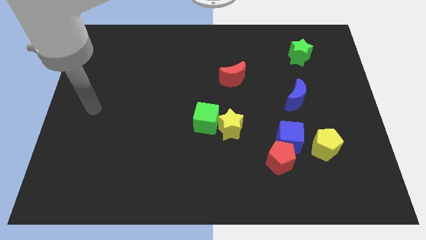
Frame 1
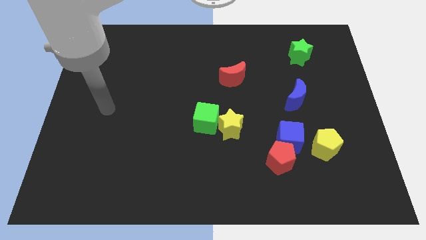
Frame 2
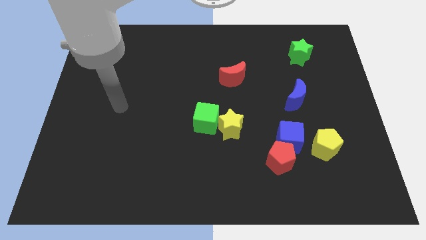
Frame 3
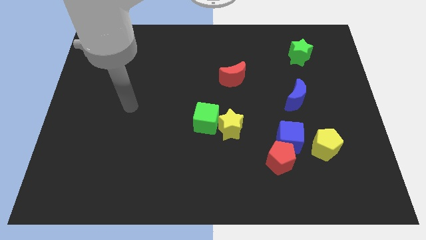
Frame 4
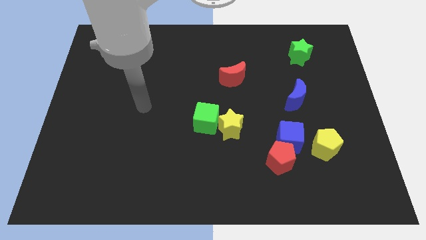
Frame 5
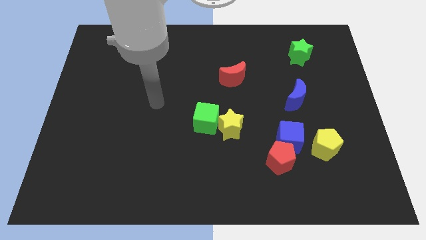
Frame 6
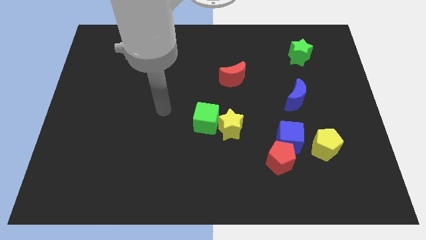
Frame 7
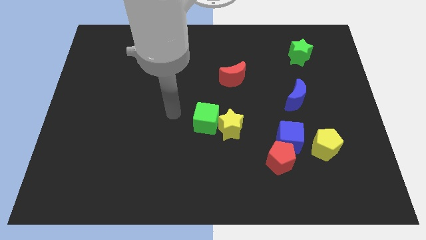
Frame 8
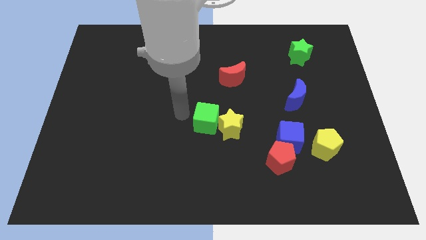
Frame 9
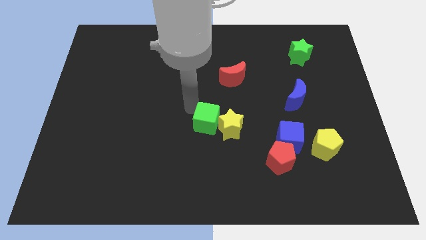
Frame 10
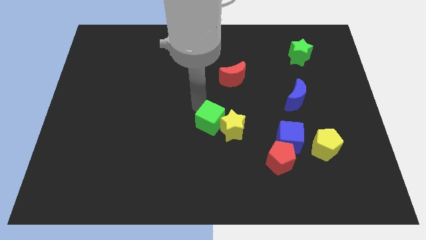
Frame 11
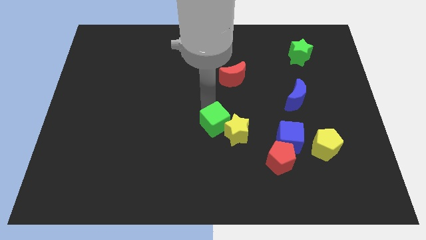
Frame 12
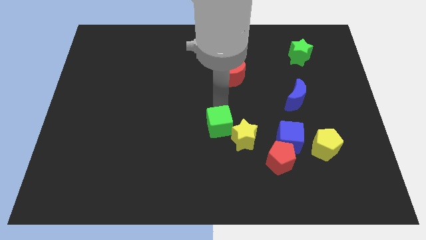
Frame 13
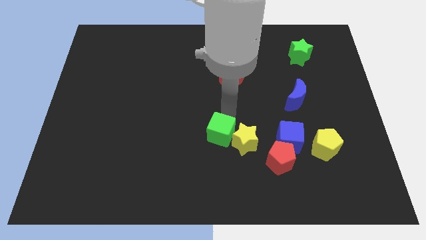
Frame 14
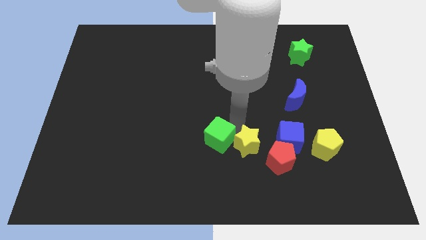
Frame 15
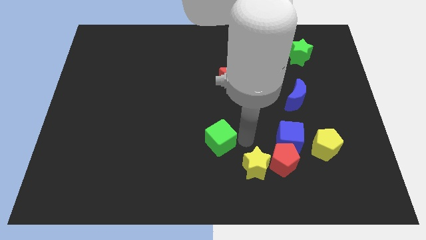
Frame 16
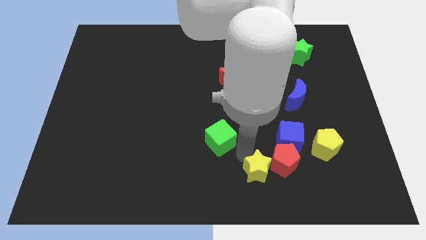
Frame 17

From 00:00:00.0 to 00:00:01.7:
separate the green cube from the yellow star

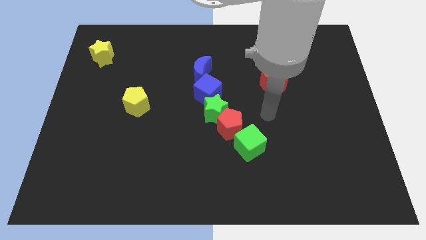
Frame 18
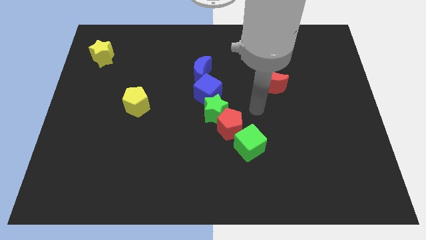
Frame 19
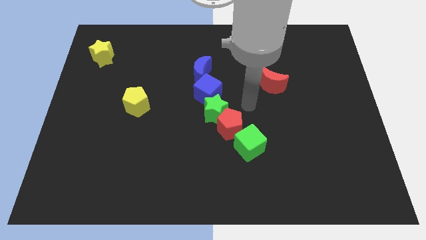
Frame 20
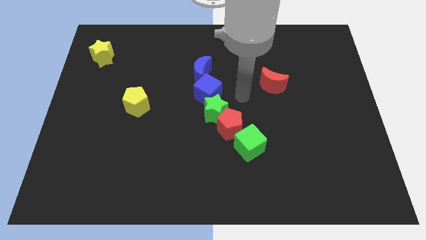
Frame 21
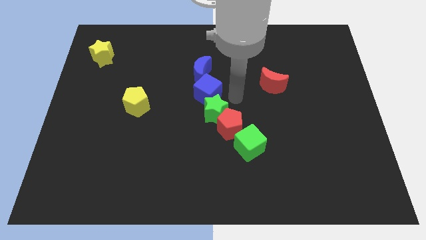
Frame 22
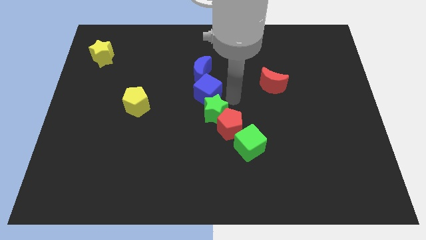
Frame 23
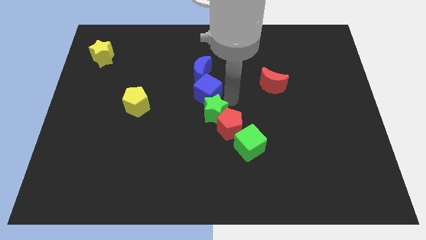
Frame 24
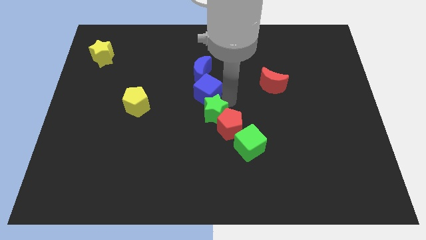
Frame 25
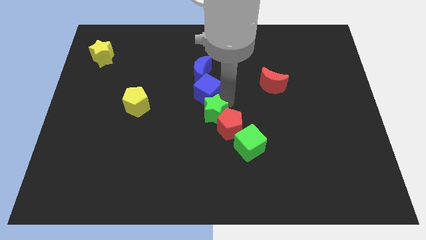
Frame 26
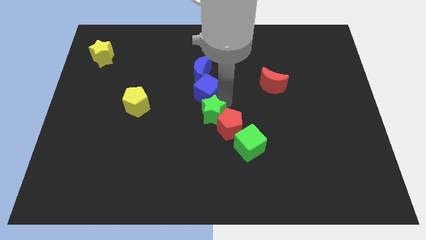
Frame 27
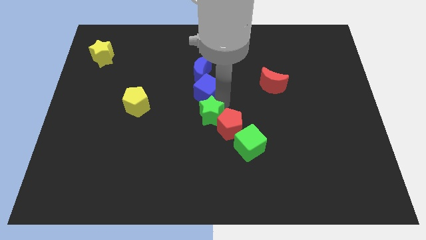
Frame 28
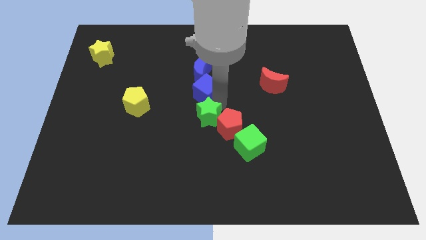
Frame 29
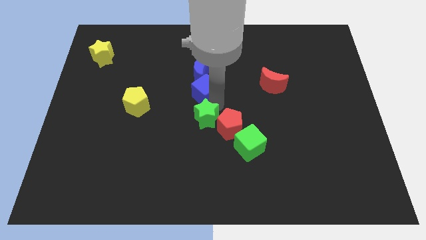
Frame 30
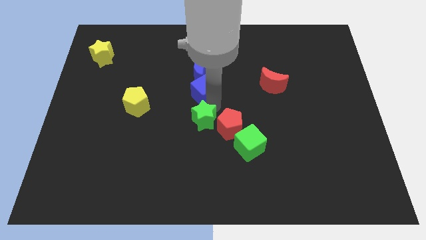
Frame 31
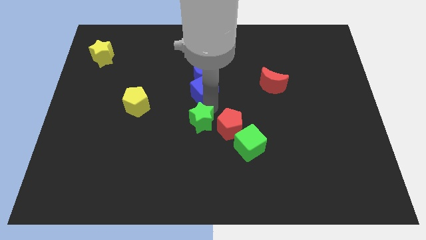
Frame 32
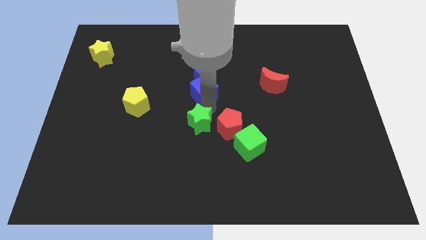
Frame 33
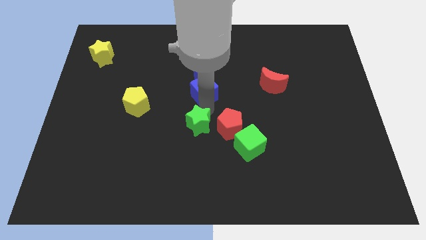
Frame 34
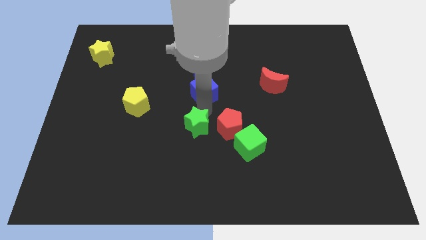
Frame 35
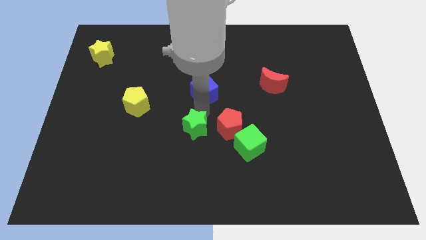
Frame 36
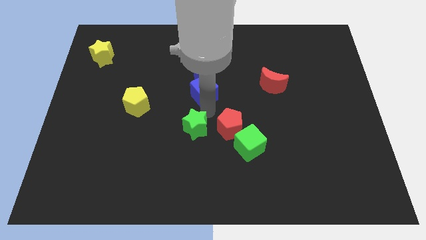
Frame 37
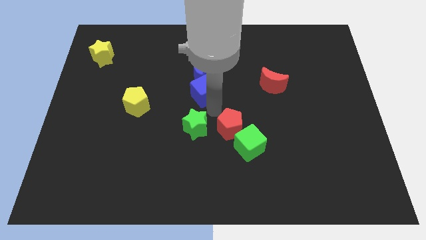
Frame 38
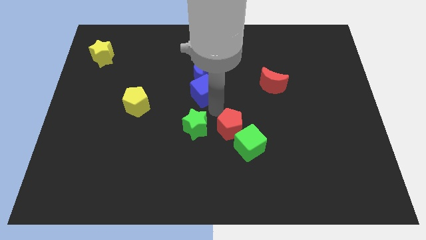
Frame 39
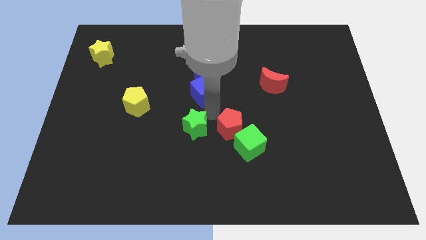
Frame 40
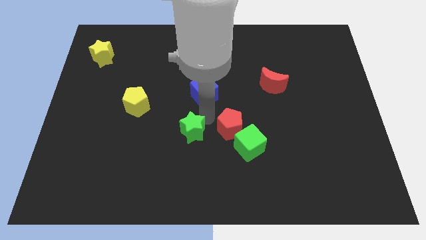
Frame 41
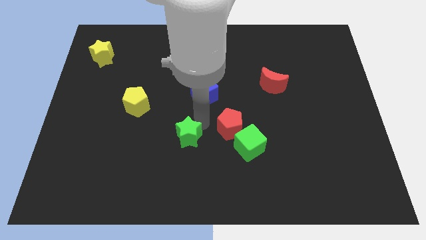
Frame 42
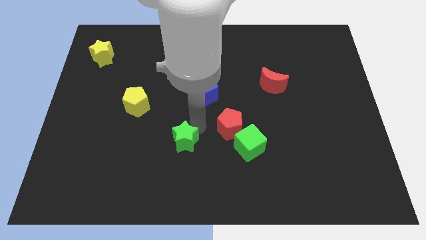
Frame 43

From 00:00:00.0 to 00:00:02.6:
separate the green star from the red pentagon and blue cube

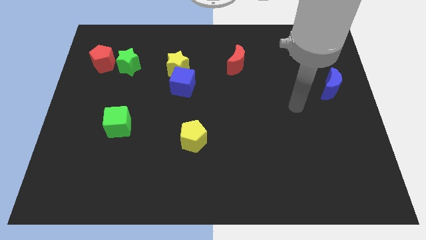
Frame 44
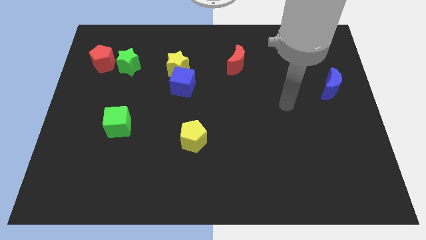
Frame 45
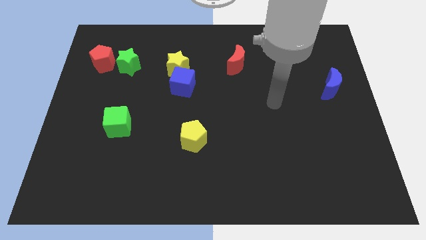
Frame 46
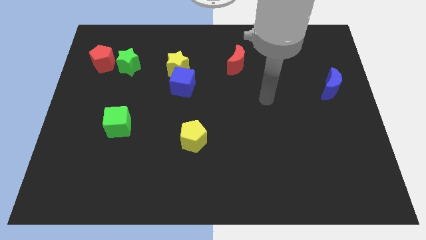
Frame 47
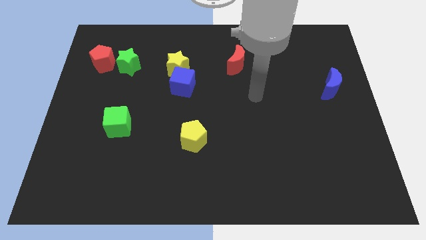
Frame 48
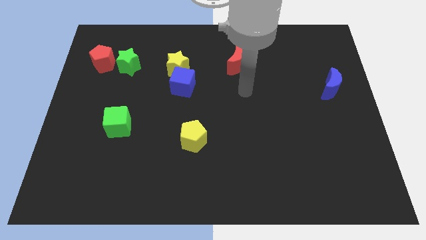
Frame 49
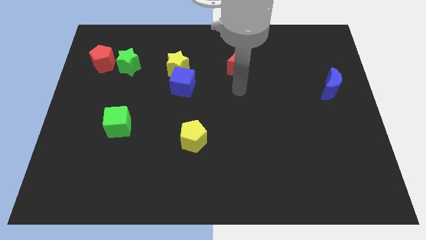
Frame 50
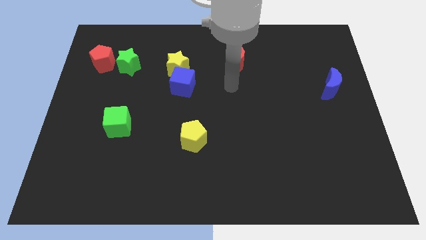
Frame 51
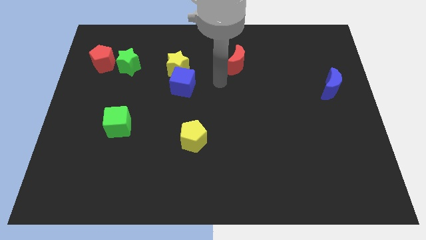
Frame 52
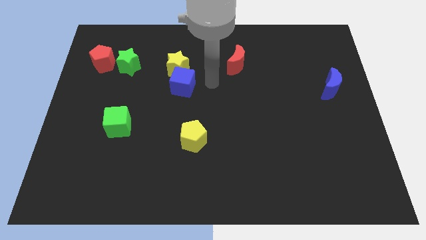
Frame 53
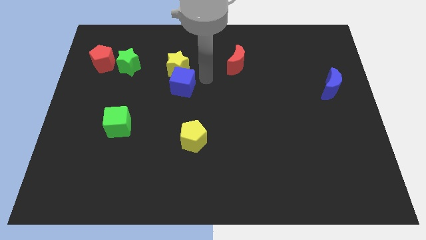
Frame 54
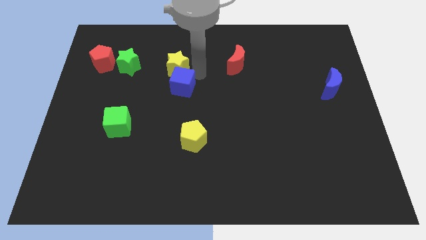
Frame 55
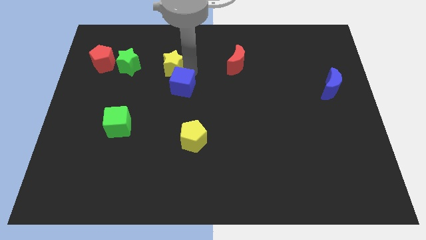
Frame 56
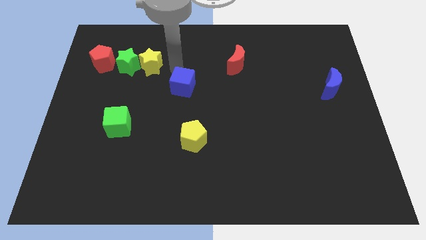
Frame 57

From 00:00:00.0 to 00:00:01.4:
move the blue cube away from the yellow star

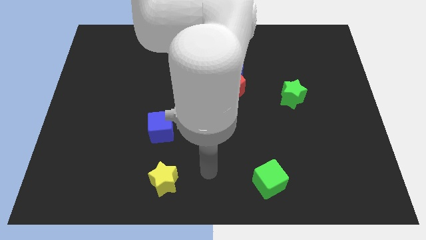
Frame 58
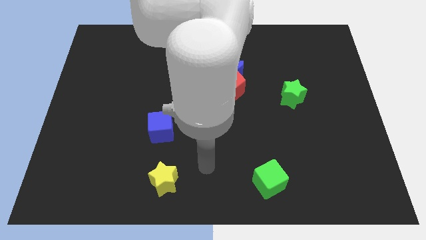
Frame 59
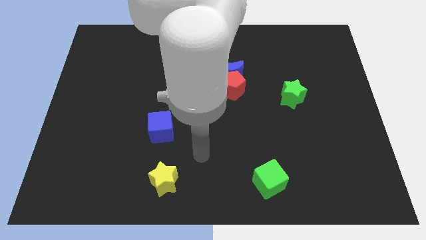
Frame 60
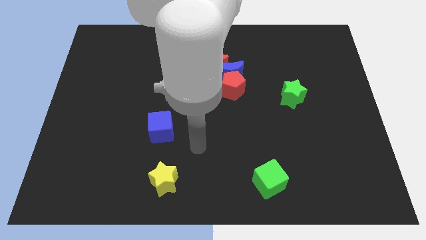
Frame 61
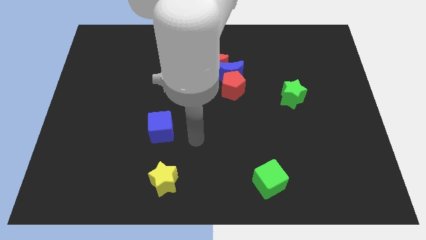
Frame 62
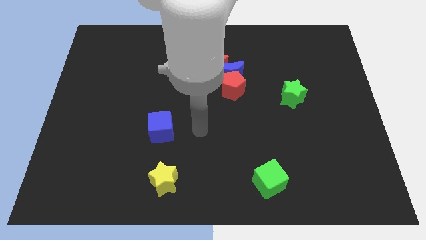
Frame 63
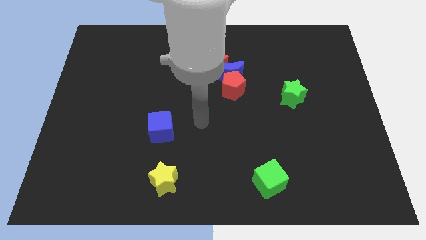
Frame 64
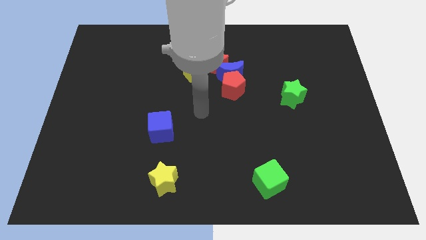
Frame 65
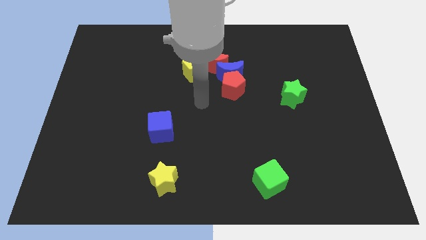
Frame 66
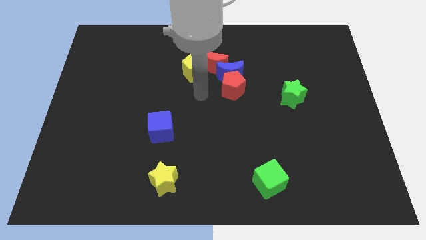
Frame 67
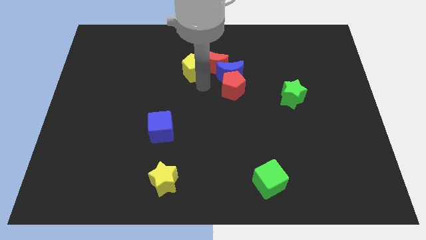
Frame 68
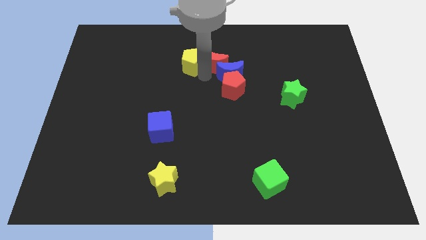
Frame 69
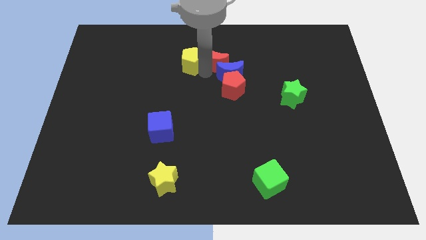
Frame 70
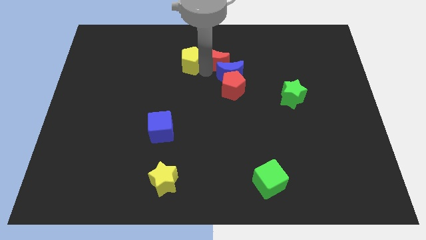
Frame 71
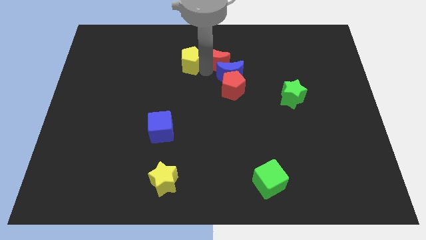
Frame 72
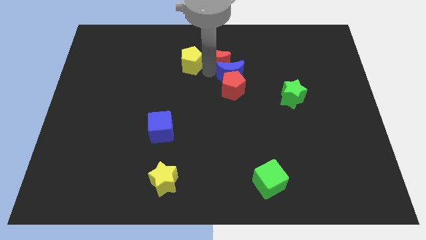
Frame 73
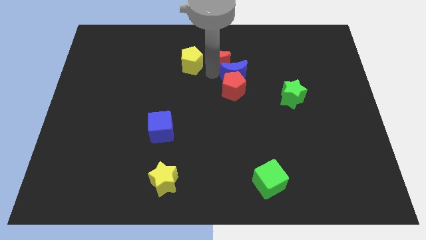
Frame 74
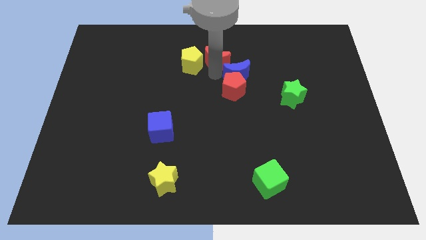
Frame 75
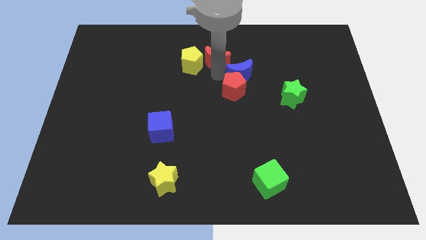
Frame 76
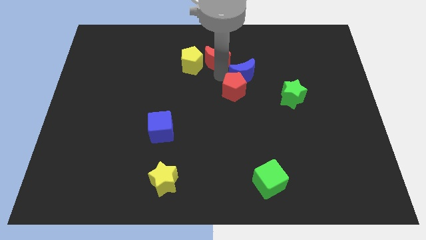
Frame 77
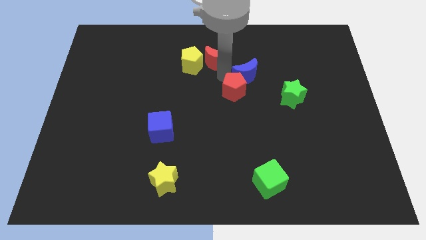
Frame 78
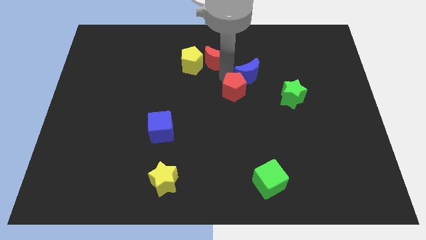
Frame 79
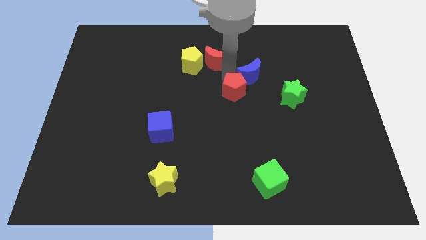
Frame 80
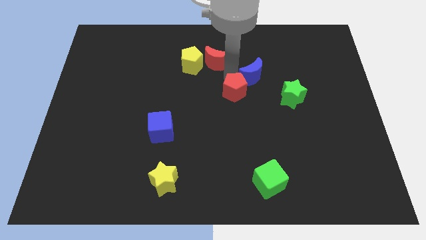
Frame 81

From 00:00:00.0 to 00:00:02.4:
separate the blue moon from the red pentagon, red moon, and yellow pentagon

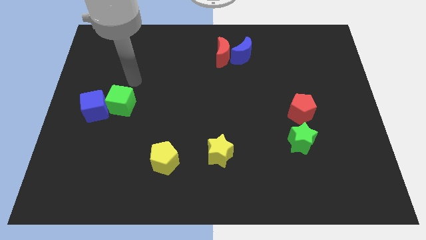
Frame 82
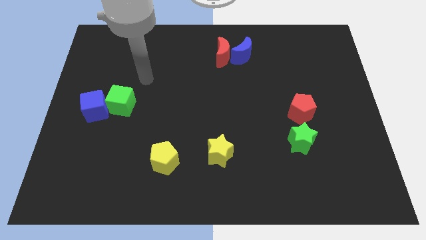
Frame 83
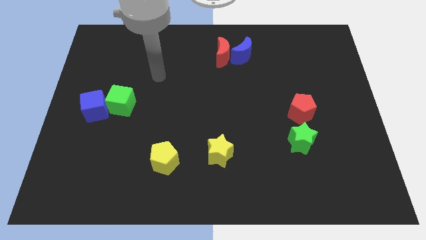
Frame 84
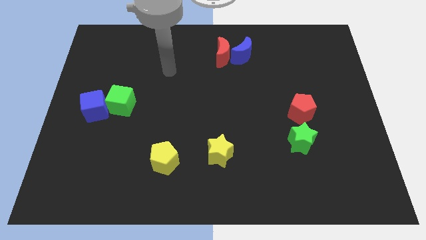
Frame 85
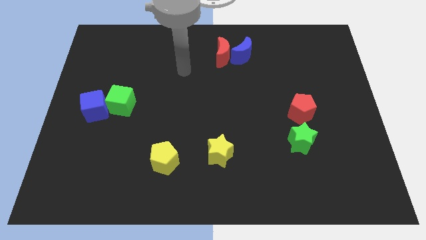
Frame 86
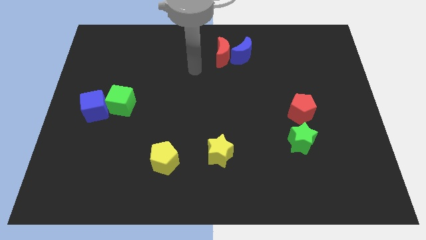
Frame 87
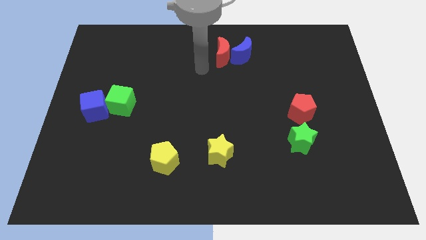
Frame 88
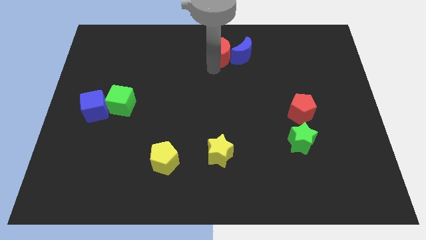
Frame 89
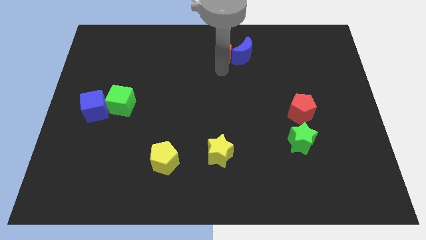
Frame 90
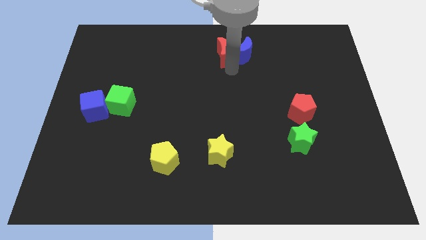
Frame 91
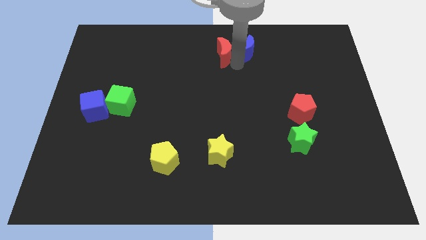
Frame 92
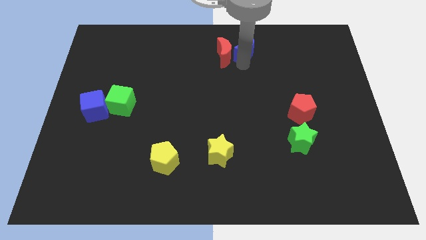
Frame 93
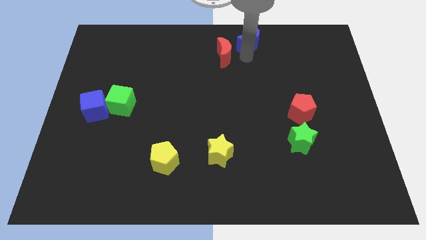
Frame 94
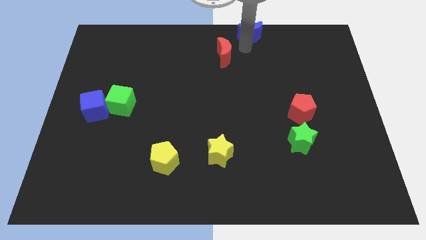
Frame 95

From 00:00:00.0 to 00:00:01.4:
pull the red moon apart from the blue moon
